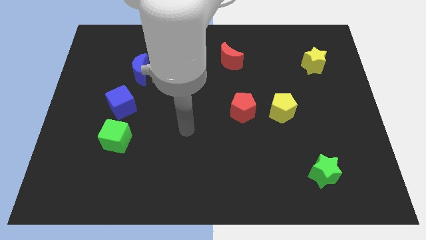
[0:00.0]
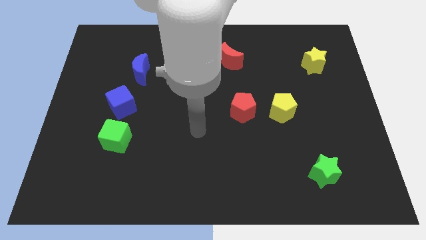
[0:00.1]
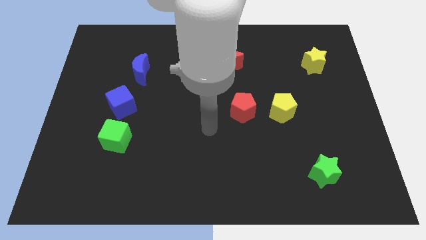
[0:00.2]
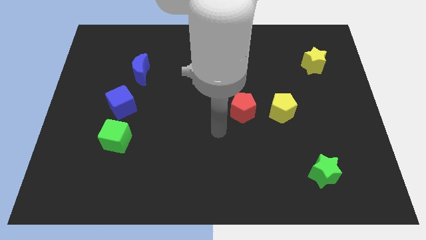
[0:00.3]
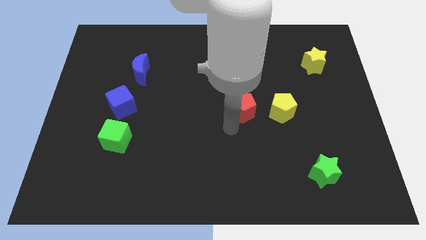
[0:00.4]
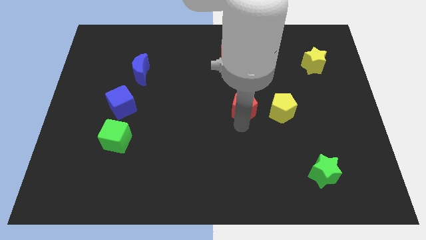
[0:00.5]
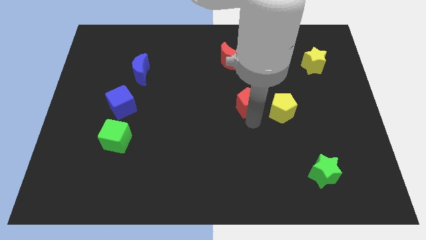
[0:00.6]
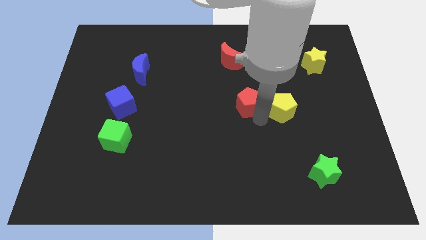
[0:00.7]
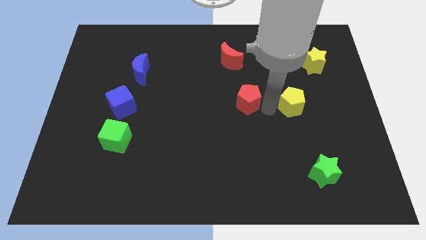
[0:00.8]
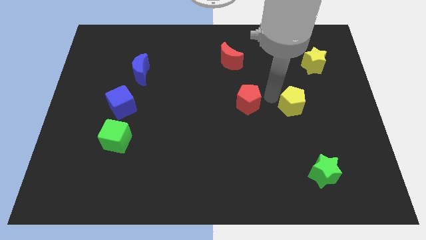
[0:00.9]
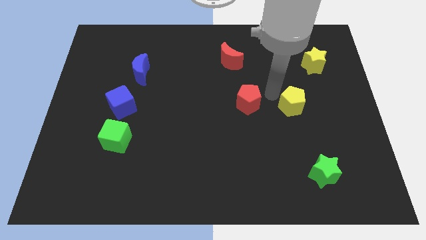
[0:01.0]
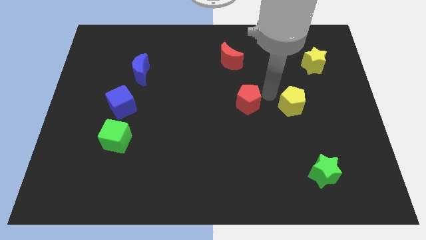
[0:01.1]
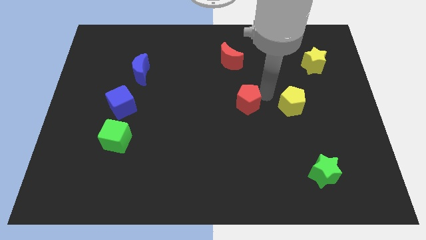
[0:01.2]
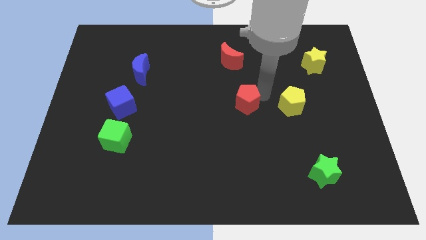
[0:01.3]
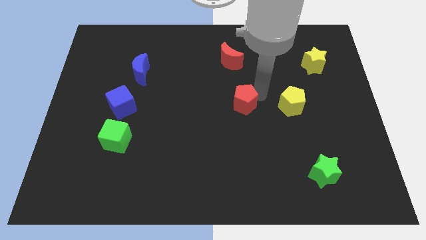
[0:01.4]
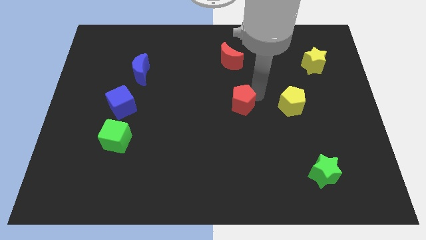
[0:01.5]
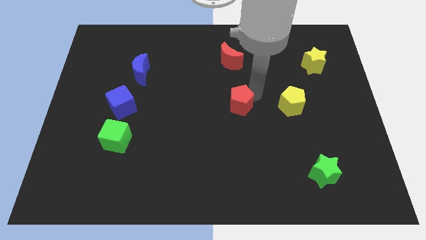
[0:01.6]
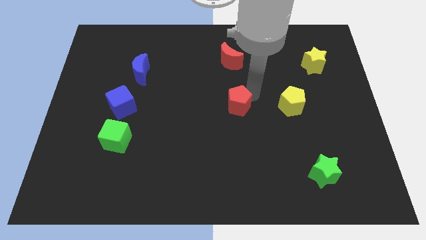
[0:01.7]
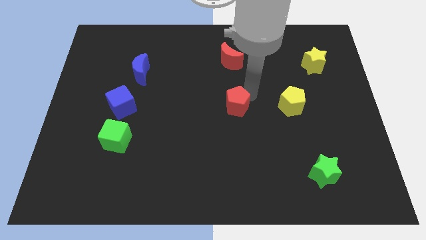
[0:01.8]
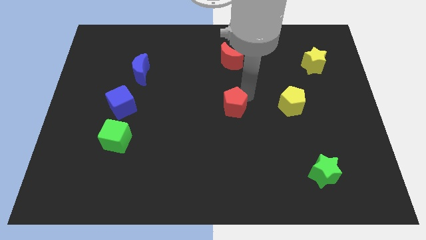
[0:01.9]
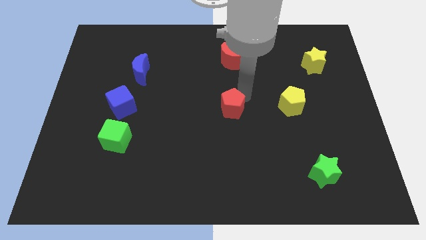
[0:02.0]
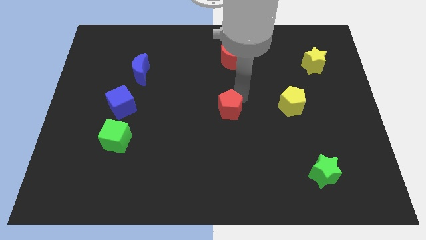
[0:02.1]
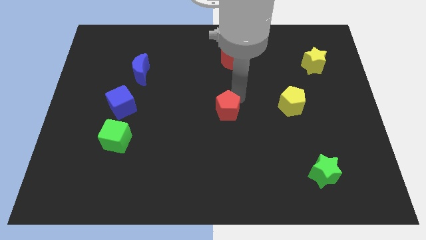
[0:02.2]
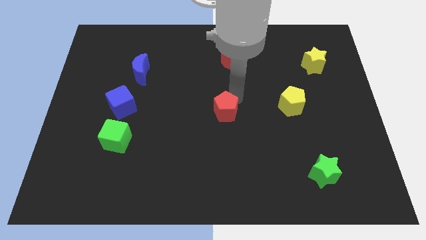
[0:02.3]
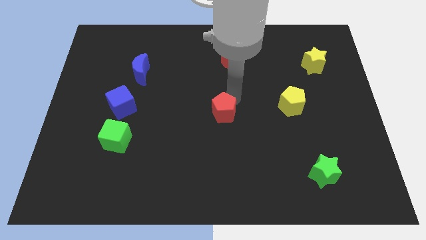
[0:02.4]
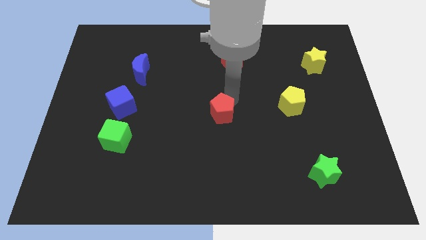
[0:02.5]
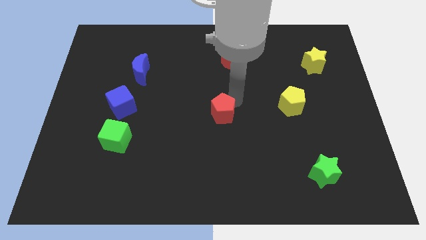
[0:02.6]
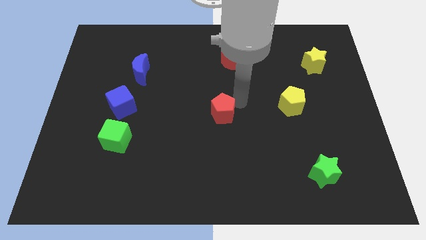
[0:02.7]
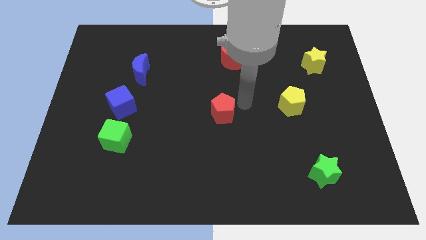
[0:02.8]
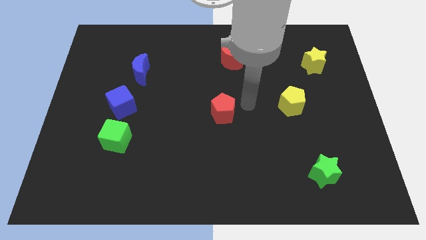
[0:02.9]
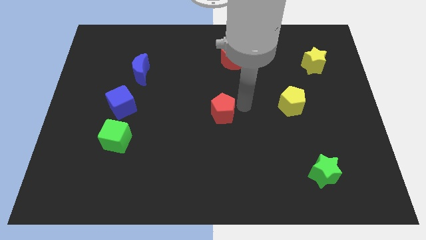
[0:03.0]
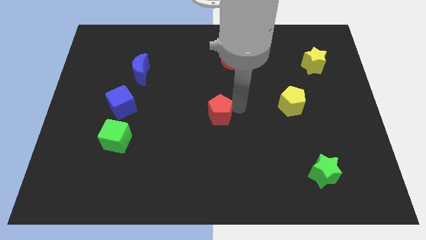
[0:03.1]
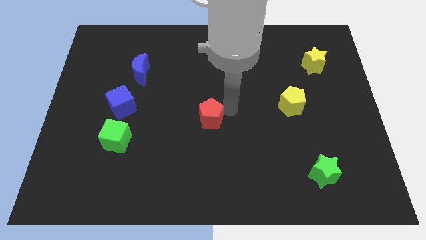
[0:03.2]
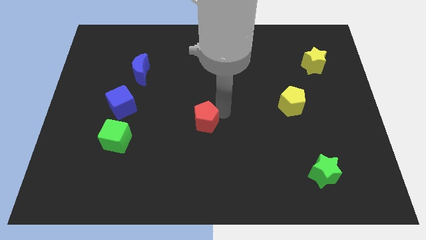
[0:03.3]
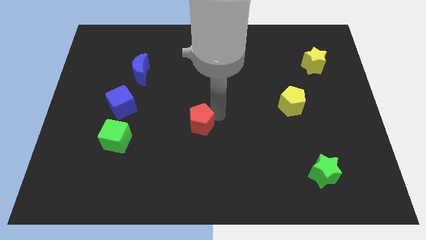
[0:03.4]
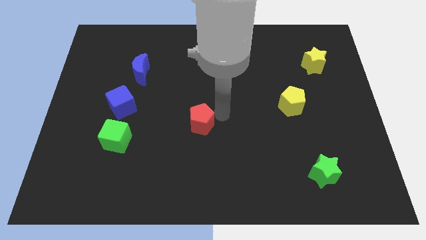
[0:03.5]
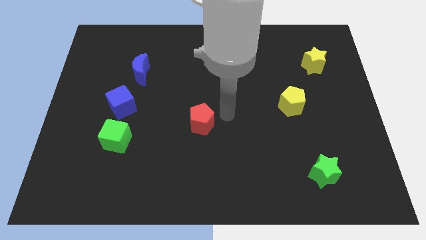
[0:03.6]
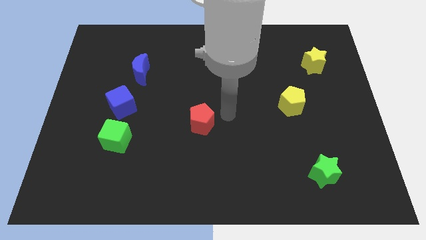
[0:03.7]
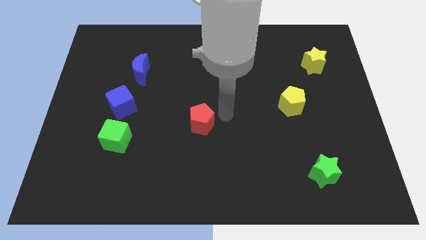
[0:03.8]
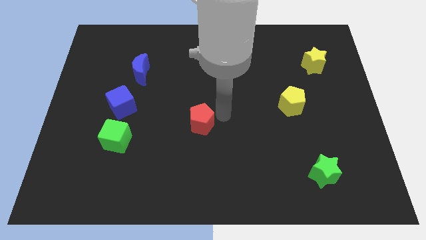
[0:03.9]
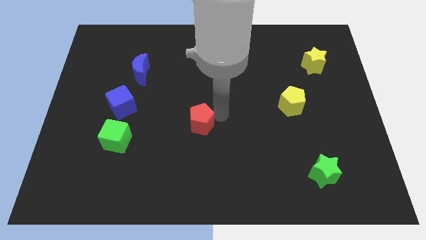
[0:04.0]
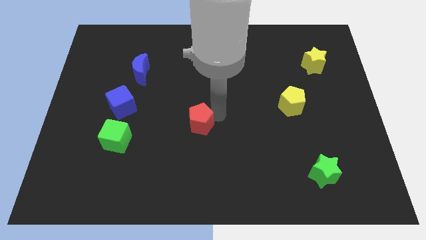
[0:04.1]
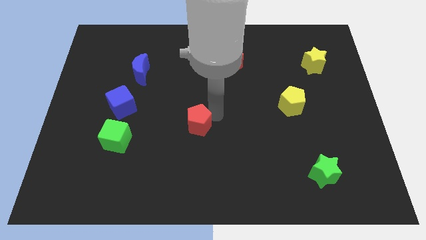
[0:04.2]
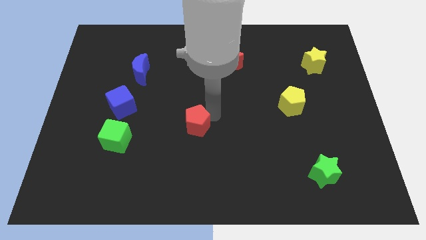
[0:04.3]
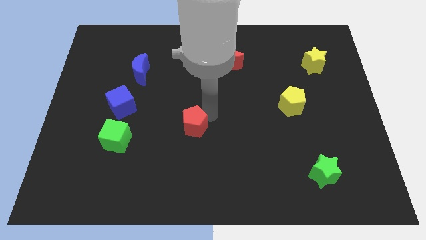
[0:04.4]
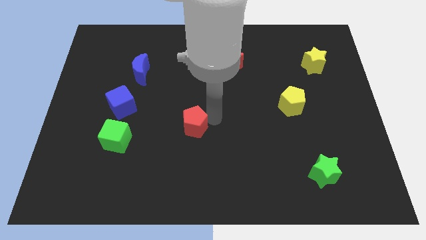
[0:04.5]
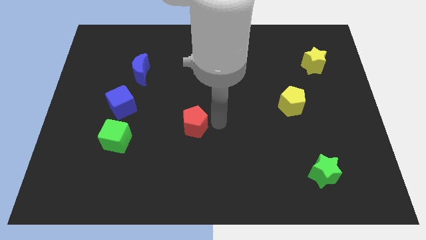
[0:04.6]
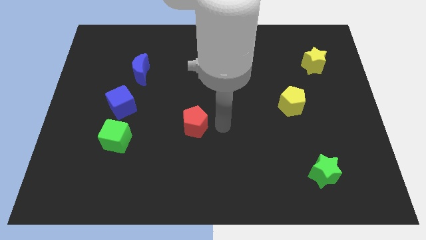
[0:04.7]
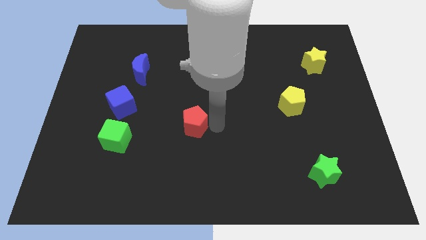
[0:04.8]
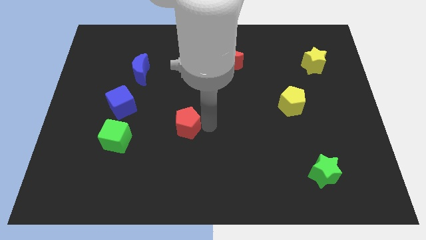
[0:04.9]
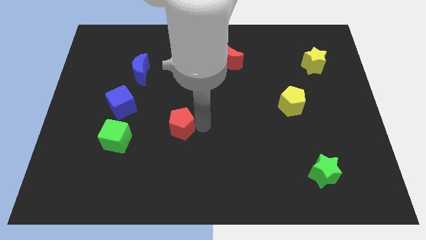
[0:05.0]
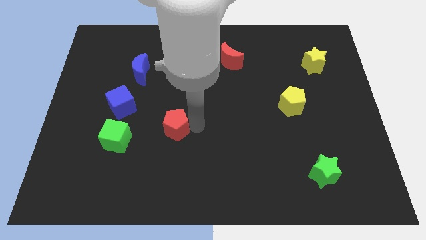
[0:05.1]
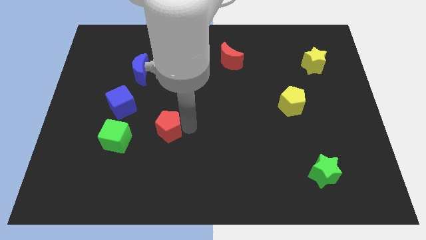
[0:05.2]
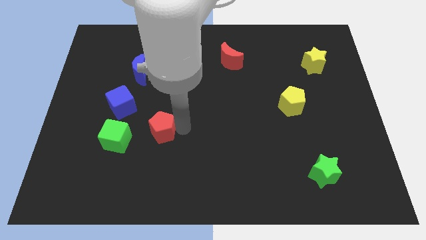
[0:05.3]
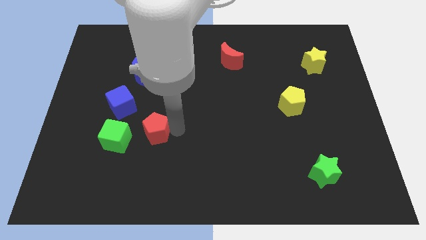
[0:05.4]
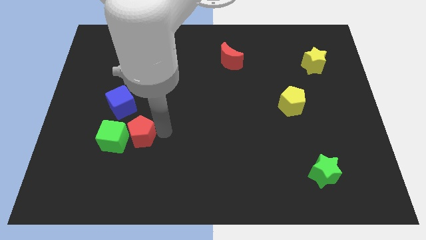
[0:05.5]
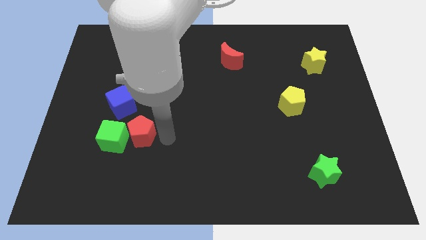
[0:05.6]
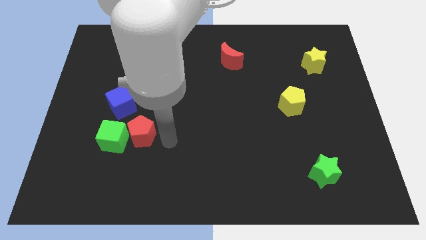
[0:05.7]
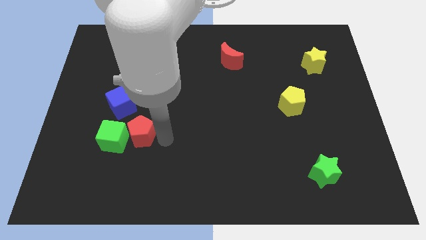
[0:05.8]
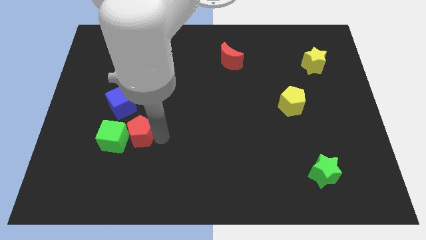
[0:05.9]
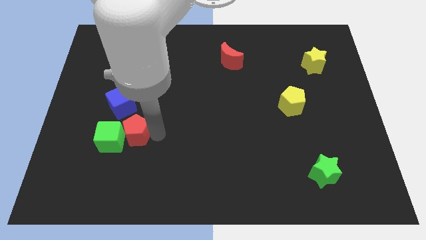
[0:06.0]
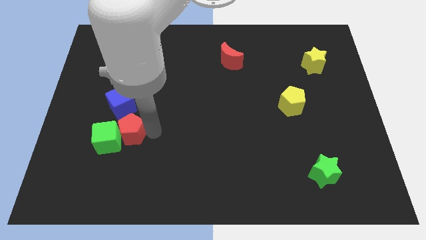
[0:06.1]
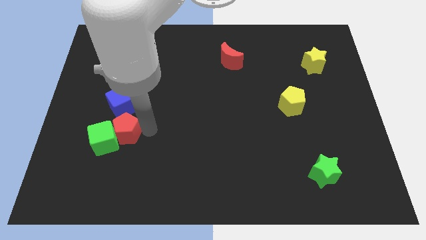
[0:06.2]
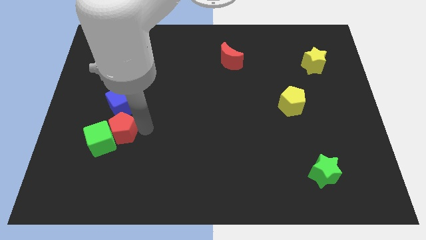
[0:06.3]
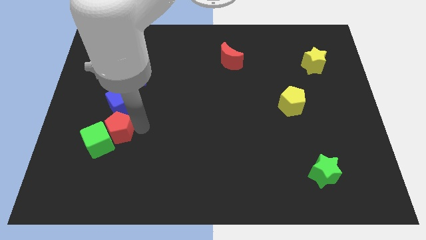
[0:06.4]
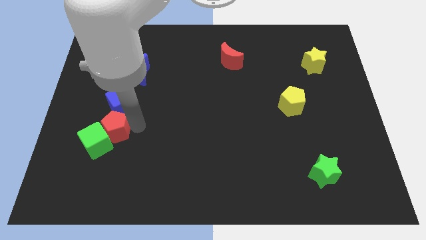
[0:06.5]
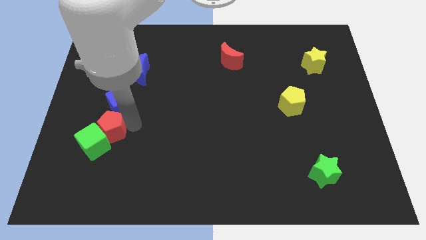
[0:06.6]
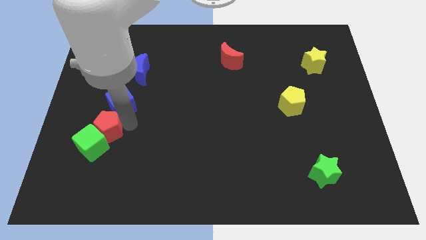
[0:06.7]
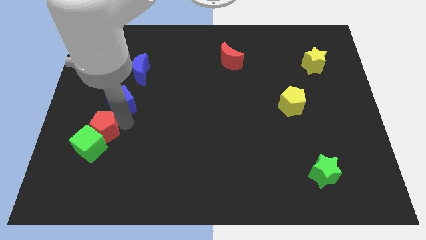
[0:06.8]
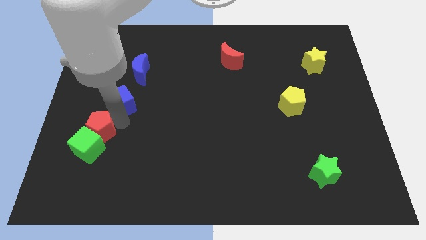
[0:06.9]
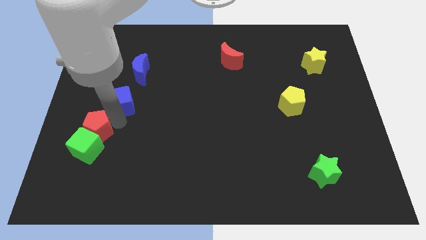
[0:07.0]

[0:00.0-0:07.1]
move the red pentagon diagonally up and to the left of the green cube
